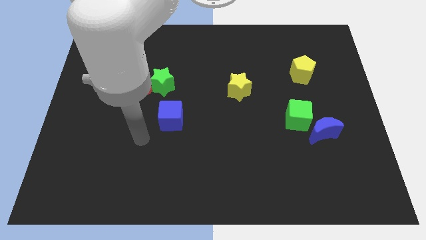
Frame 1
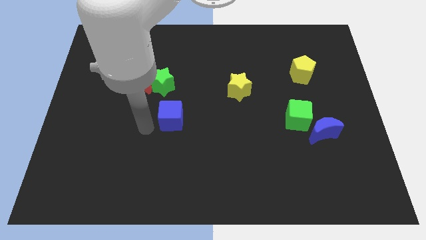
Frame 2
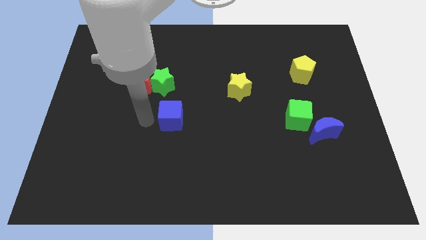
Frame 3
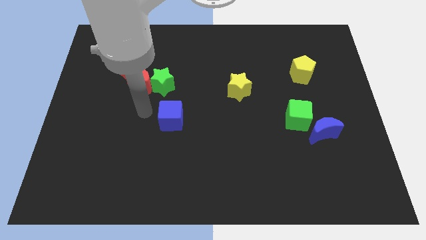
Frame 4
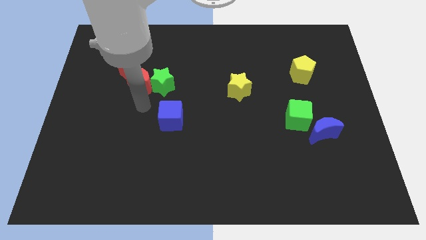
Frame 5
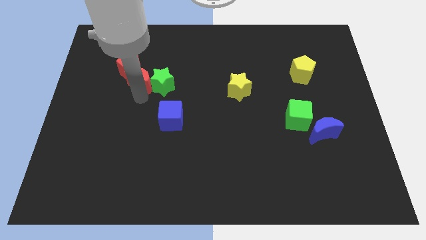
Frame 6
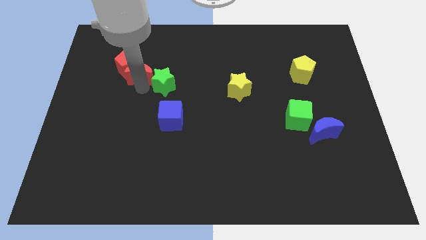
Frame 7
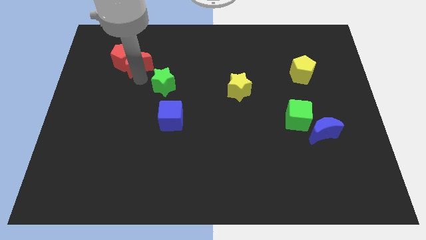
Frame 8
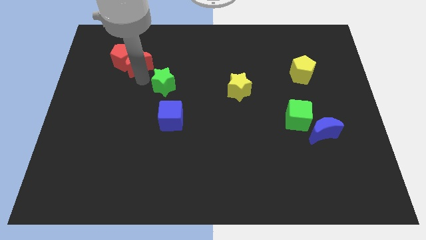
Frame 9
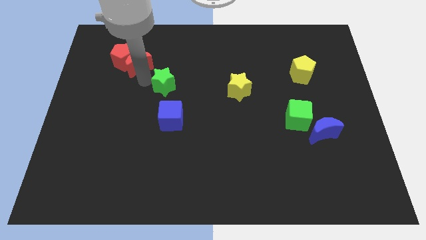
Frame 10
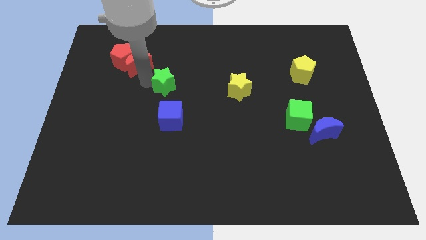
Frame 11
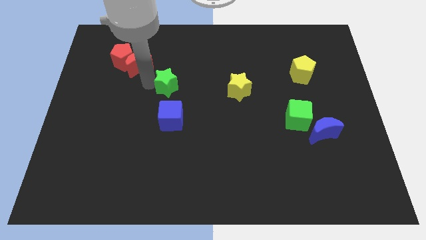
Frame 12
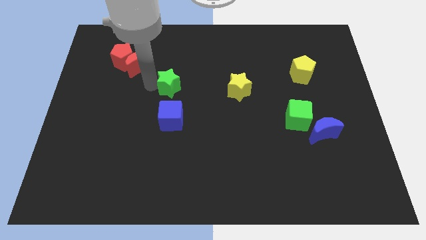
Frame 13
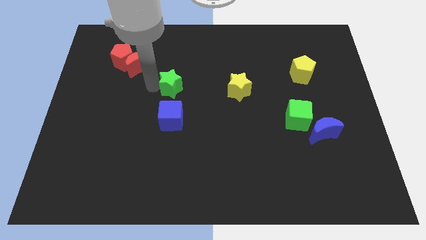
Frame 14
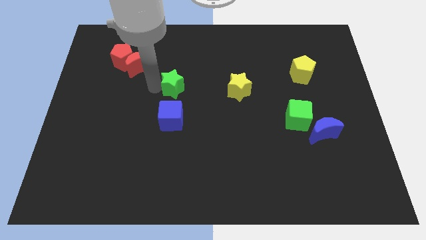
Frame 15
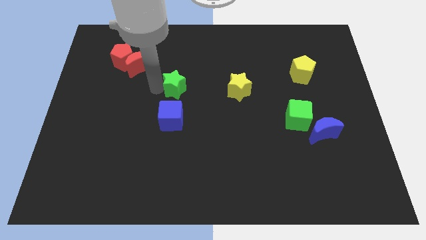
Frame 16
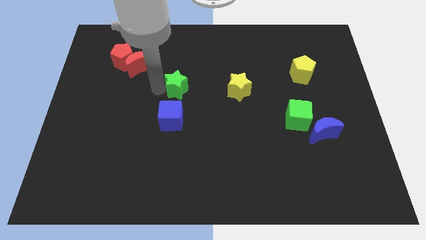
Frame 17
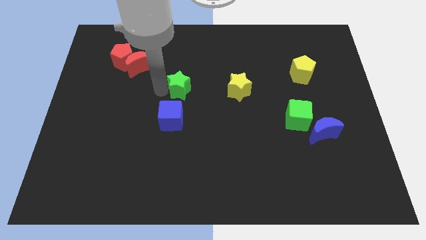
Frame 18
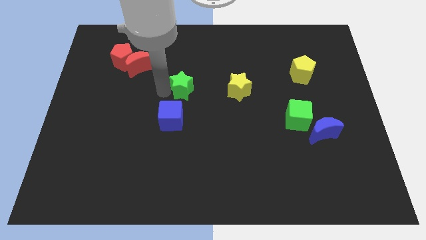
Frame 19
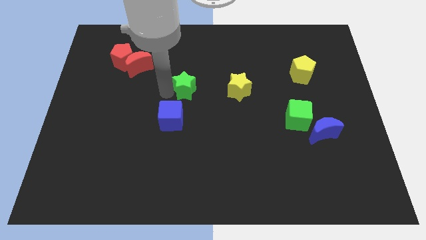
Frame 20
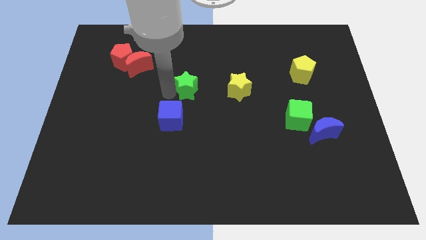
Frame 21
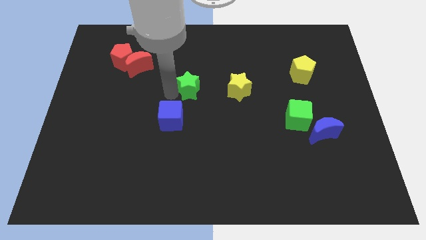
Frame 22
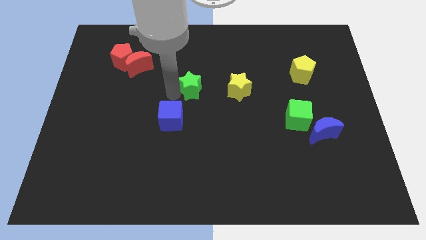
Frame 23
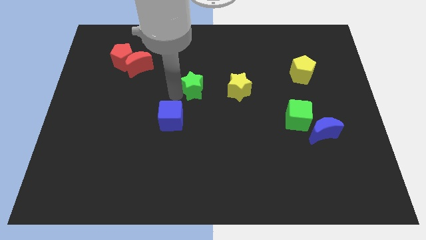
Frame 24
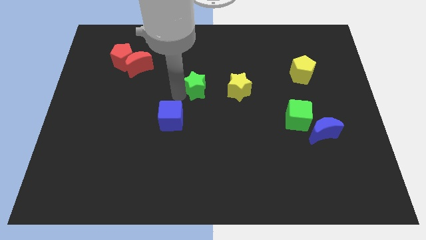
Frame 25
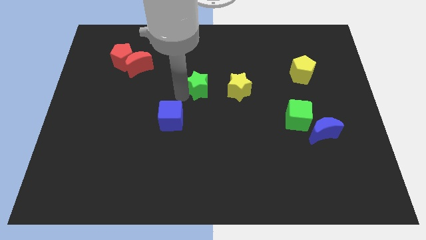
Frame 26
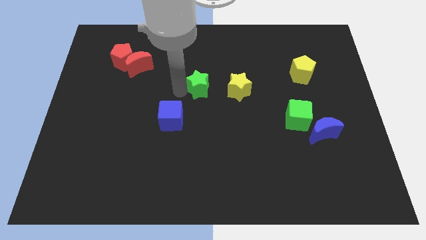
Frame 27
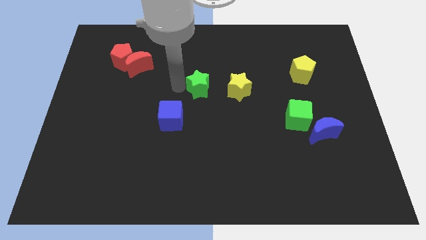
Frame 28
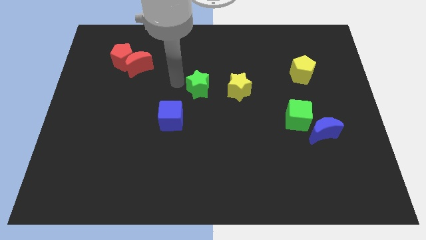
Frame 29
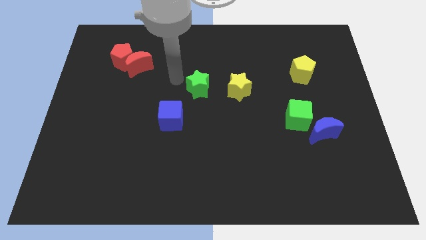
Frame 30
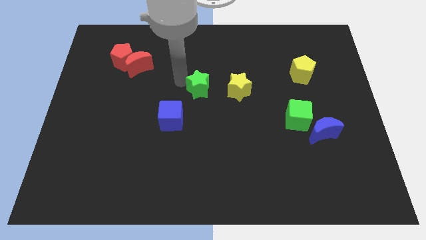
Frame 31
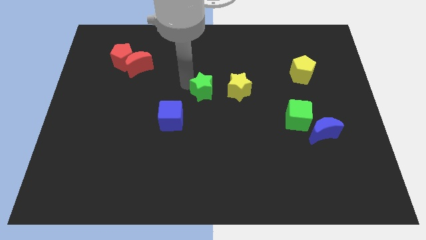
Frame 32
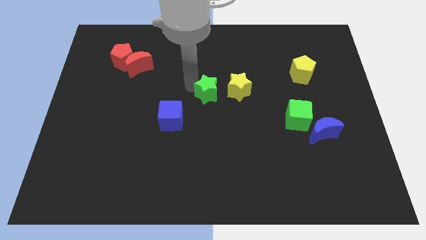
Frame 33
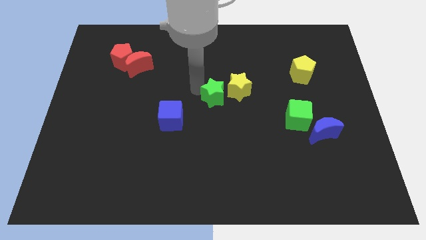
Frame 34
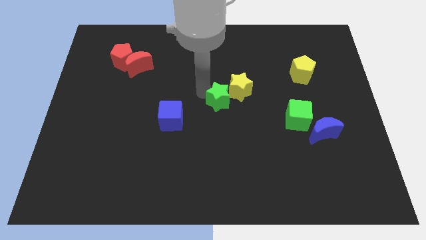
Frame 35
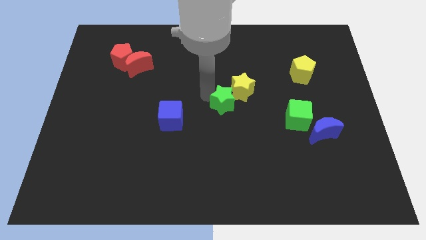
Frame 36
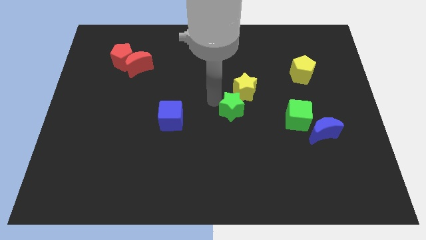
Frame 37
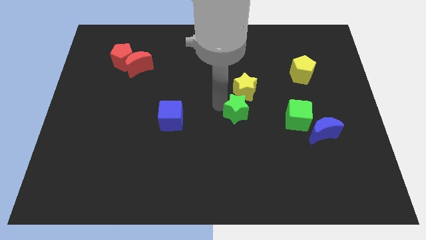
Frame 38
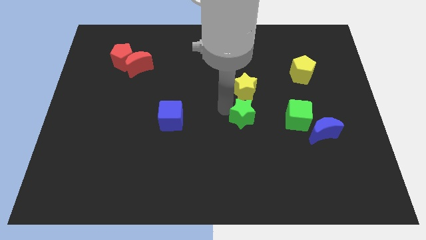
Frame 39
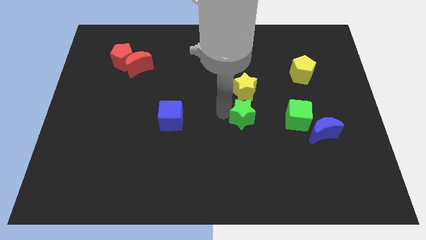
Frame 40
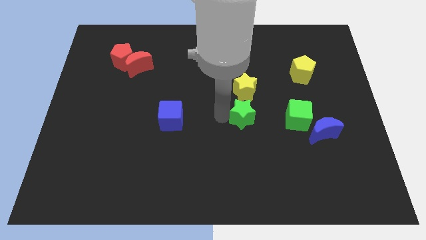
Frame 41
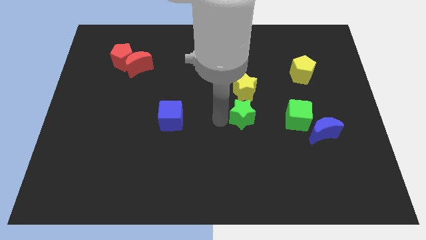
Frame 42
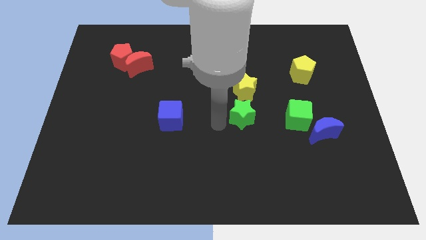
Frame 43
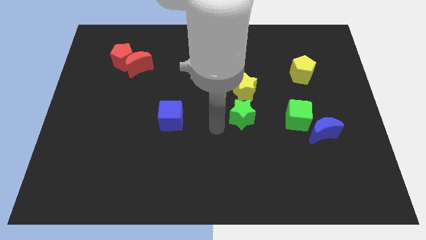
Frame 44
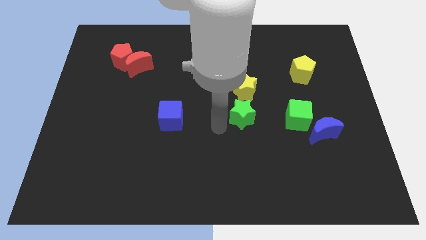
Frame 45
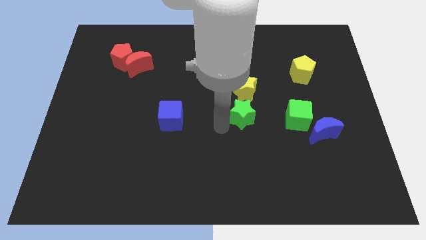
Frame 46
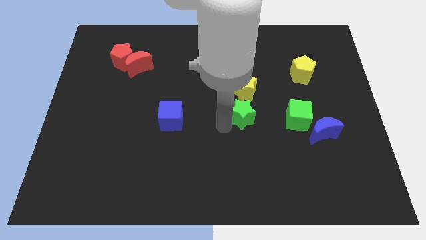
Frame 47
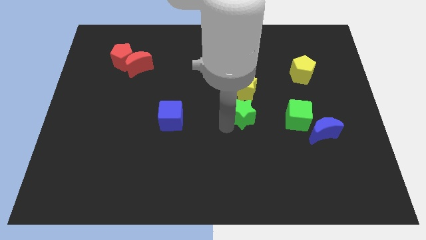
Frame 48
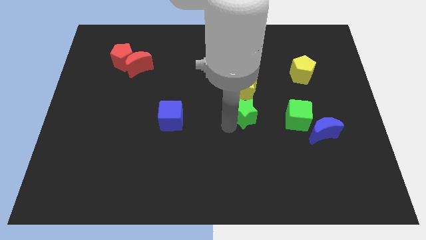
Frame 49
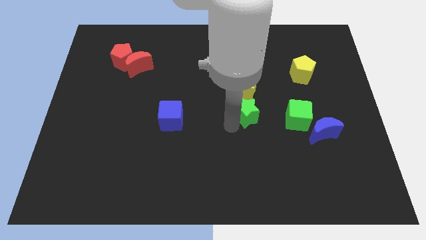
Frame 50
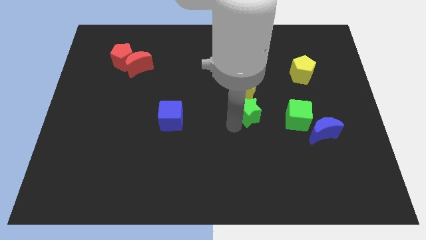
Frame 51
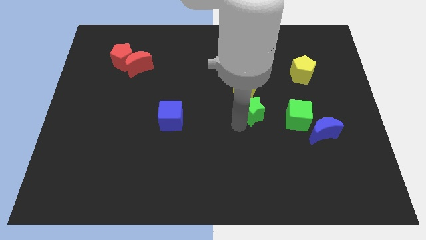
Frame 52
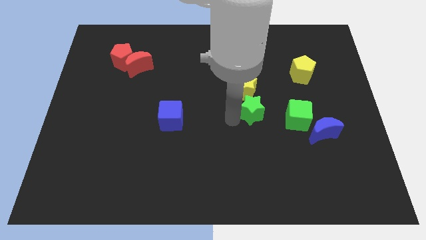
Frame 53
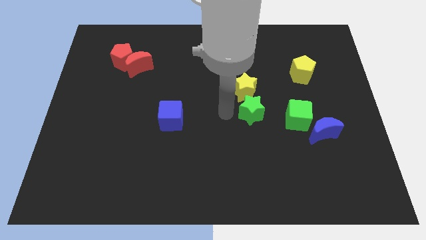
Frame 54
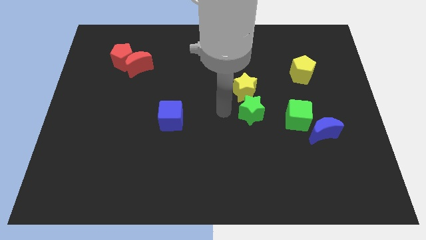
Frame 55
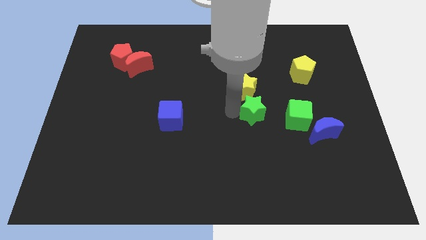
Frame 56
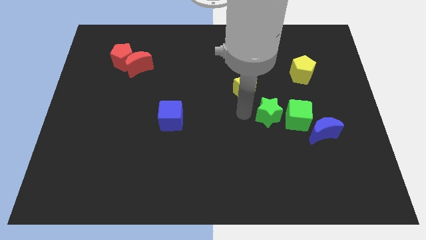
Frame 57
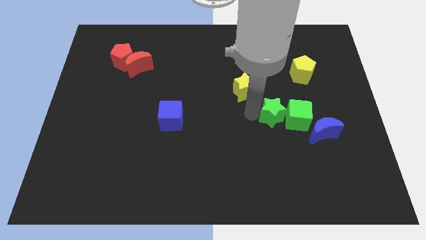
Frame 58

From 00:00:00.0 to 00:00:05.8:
move the green star close to the green cube

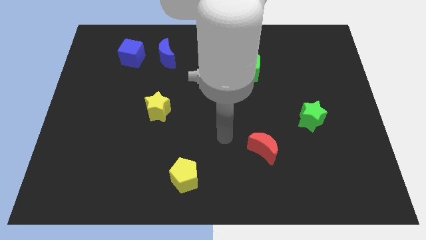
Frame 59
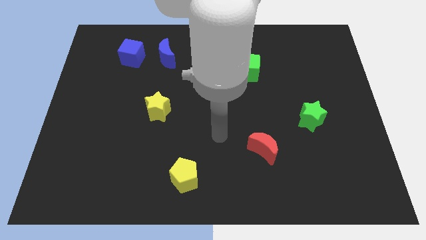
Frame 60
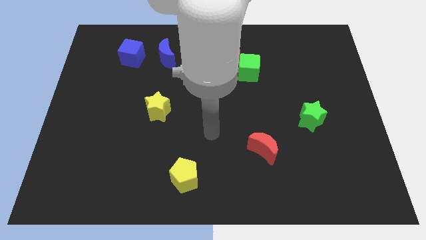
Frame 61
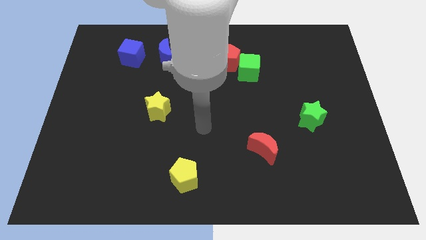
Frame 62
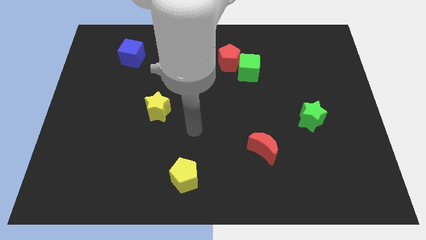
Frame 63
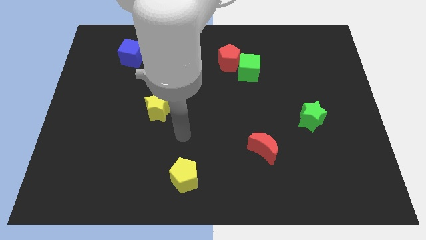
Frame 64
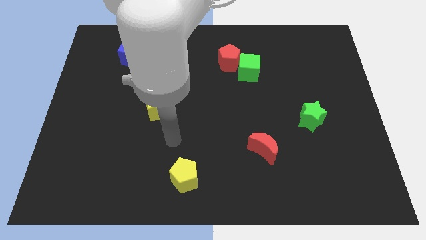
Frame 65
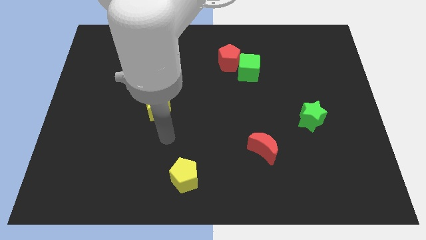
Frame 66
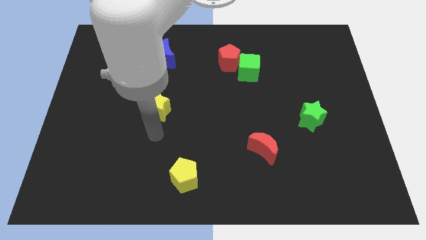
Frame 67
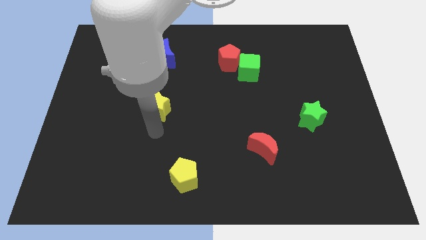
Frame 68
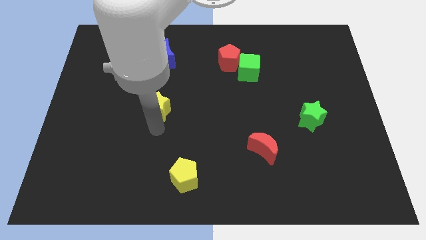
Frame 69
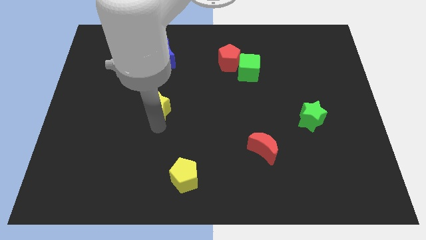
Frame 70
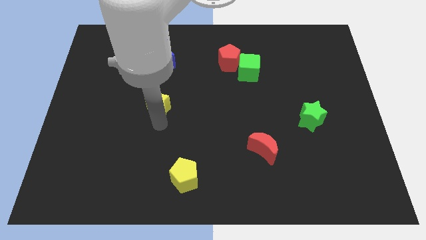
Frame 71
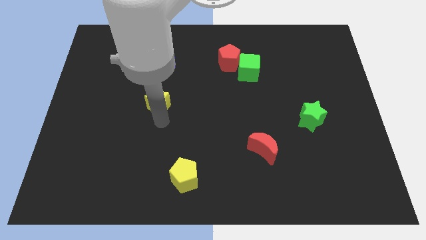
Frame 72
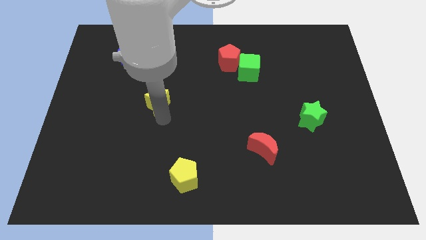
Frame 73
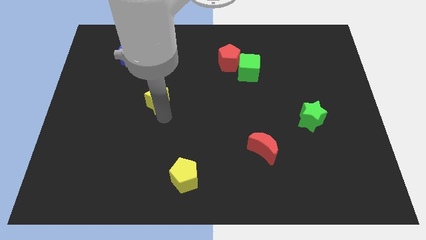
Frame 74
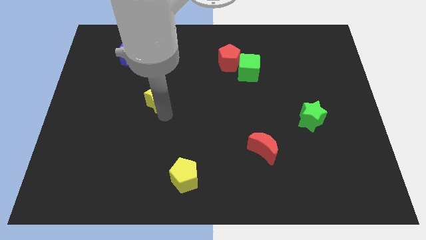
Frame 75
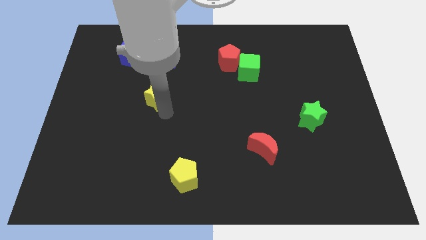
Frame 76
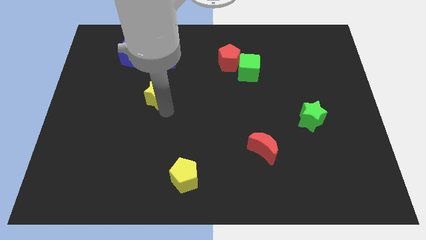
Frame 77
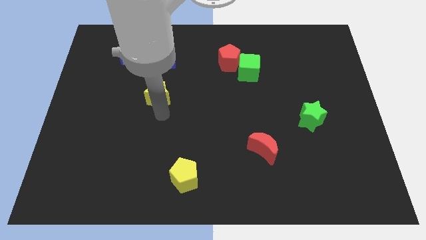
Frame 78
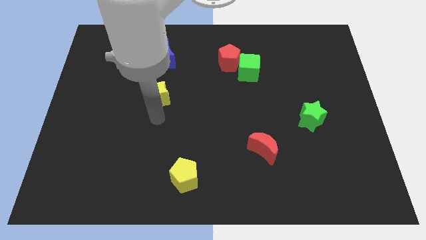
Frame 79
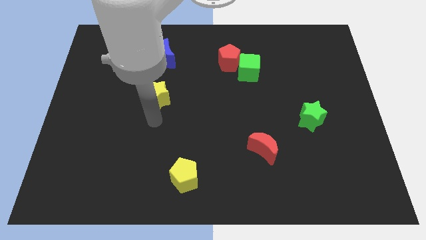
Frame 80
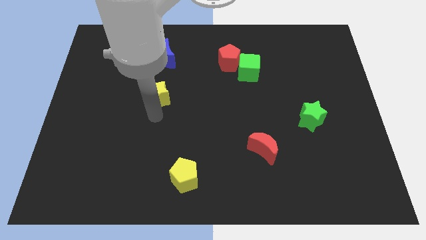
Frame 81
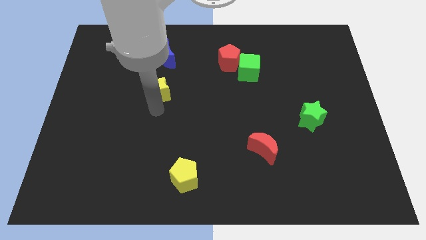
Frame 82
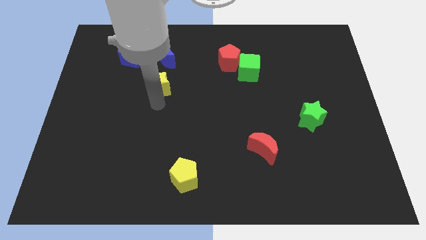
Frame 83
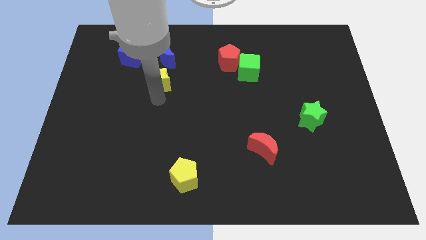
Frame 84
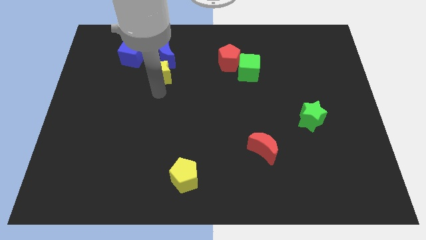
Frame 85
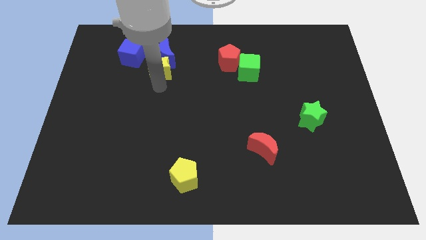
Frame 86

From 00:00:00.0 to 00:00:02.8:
push the yellow star towards the blue moon
